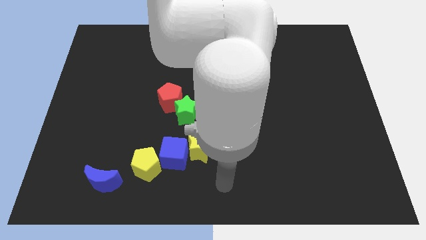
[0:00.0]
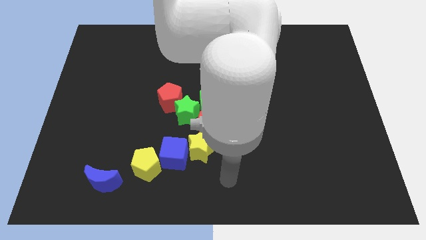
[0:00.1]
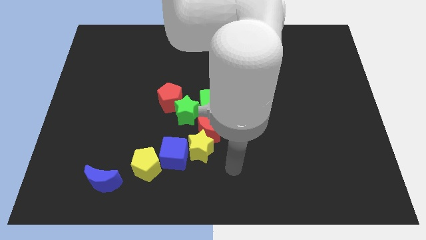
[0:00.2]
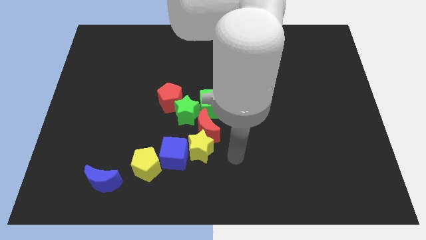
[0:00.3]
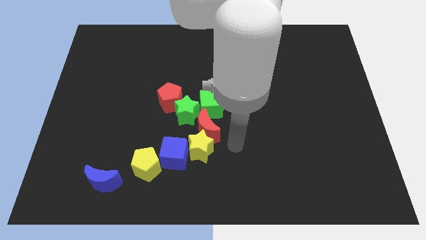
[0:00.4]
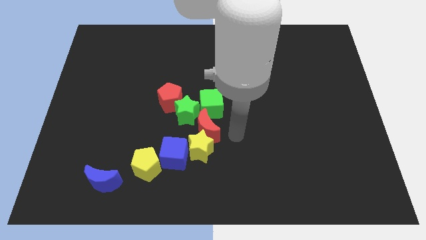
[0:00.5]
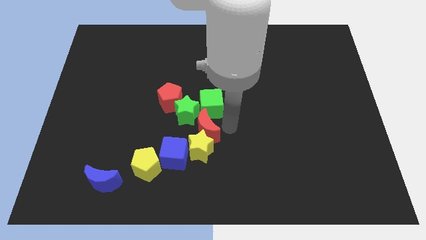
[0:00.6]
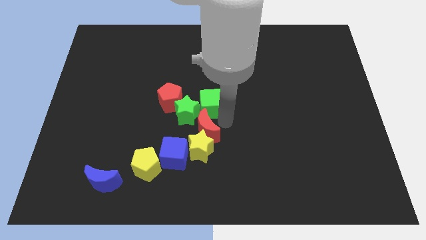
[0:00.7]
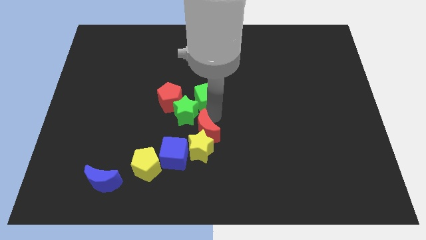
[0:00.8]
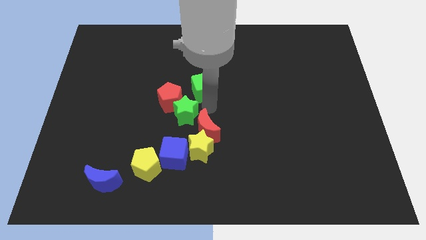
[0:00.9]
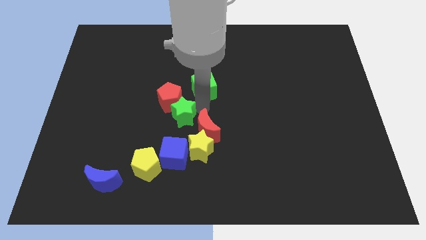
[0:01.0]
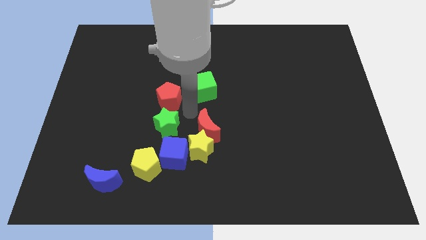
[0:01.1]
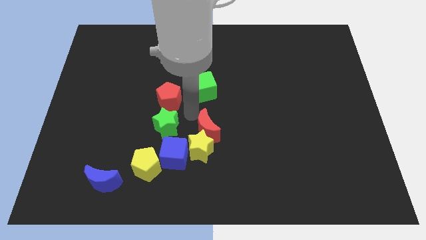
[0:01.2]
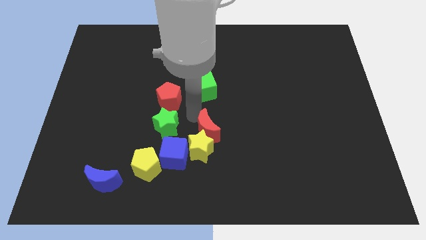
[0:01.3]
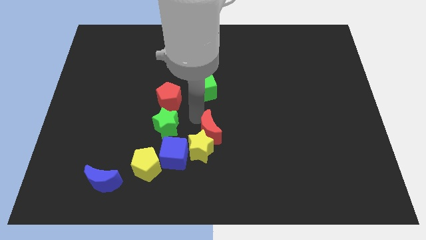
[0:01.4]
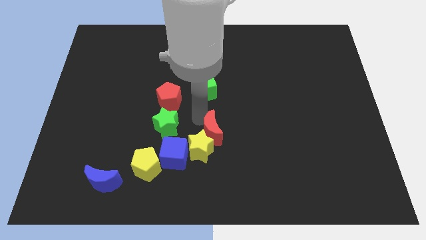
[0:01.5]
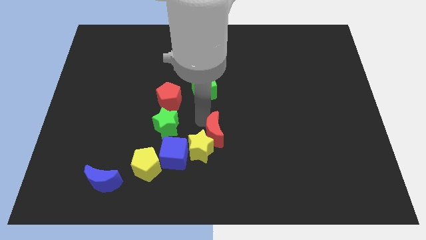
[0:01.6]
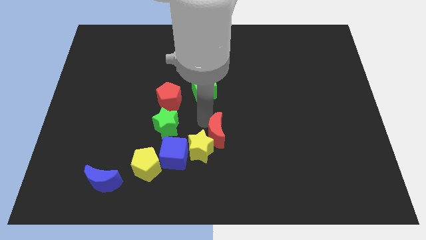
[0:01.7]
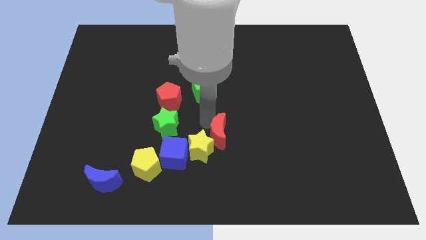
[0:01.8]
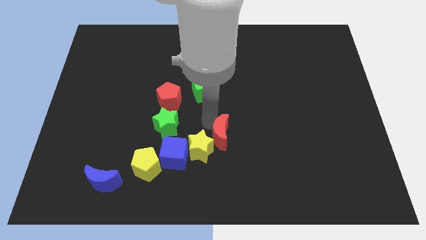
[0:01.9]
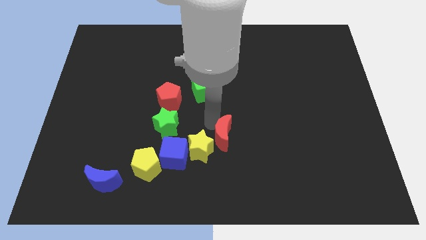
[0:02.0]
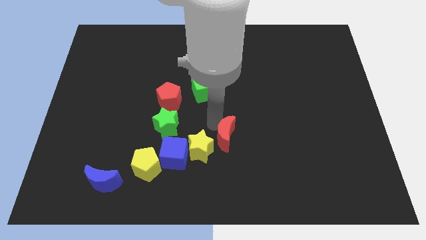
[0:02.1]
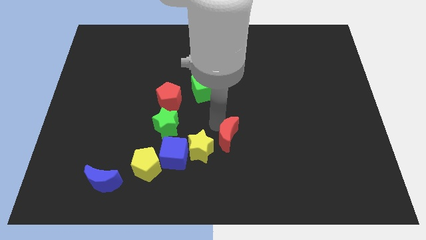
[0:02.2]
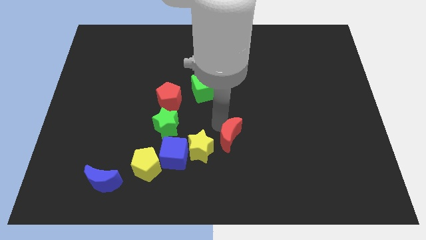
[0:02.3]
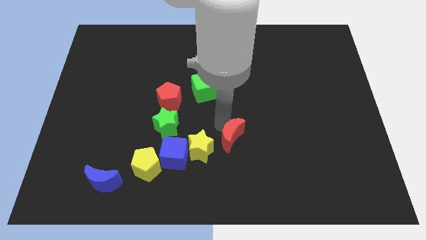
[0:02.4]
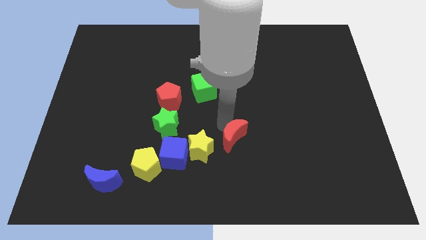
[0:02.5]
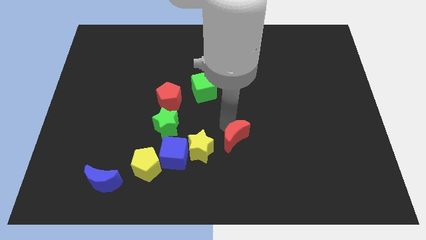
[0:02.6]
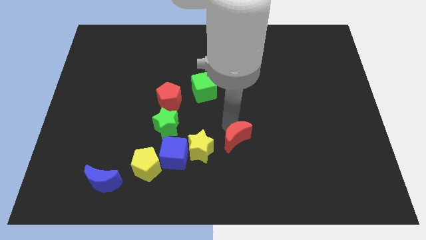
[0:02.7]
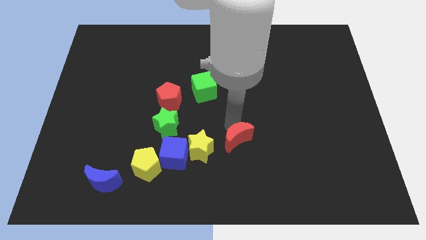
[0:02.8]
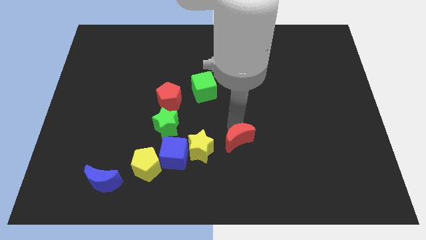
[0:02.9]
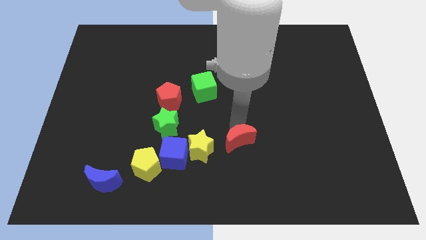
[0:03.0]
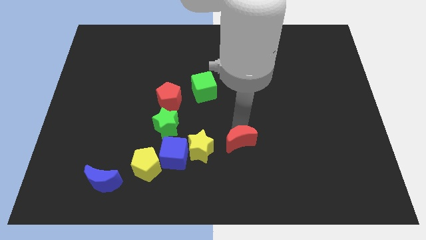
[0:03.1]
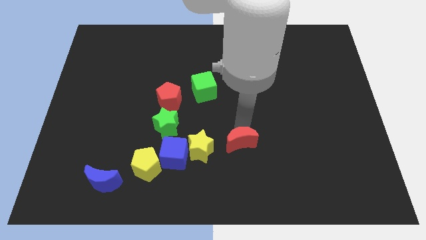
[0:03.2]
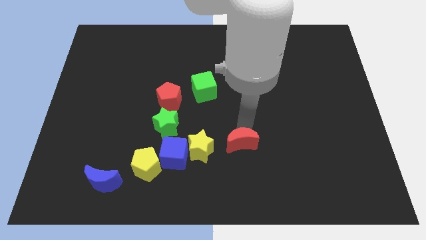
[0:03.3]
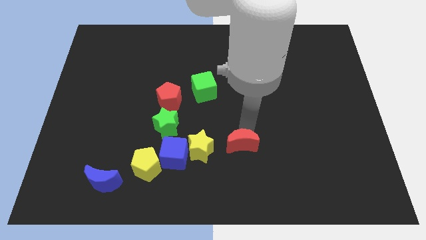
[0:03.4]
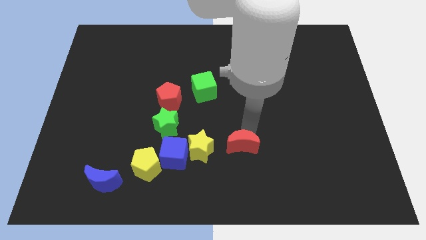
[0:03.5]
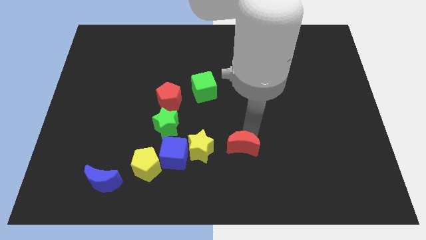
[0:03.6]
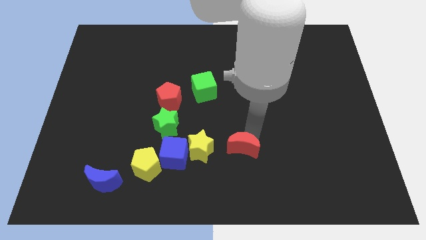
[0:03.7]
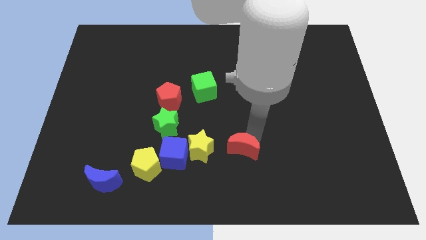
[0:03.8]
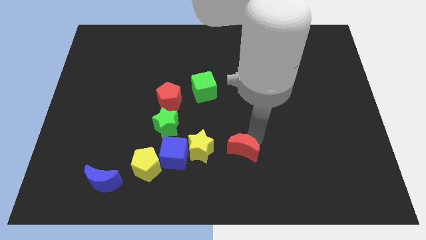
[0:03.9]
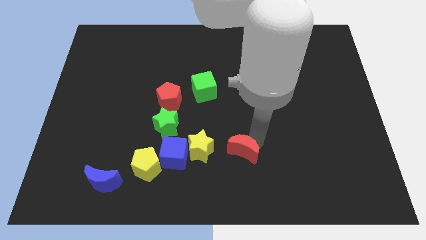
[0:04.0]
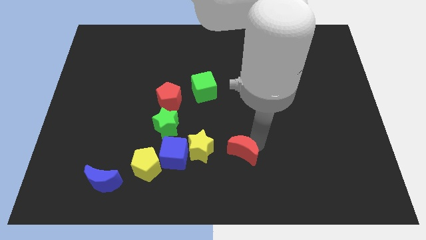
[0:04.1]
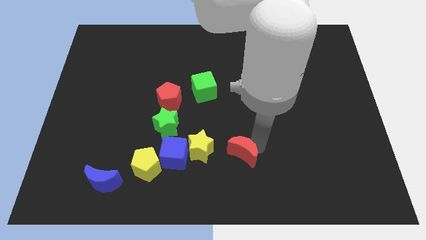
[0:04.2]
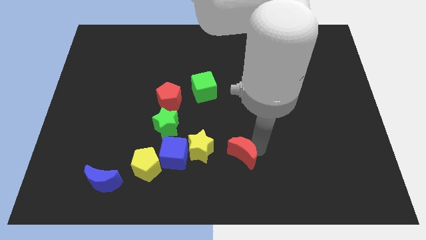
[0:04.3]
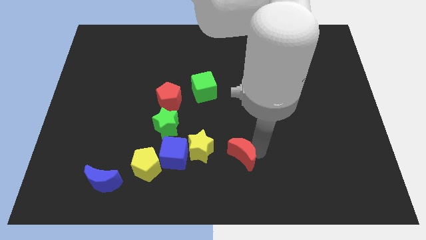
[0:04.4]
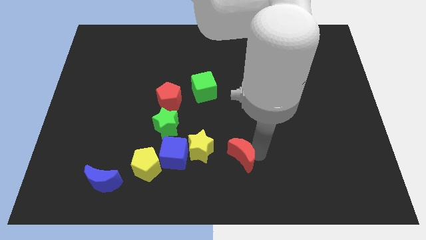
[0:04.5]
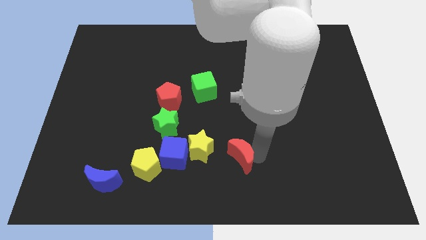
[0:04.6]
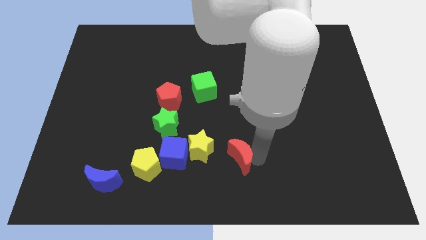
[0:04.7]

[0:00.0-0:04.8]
slide the red moon to the bottom side

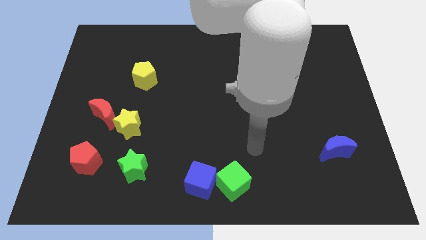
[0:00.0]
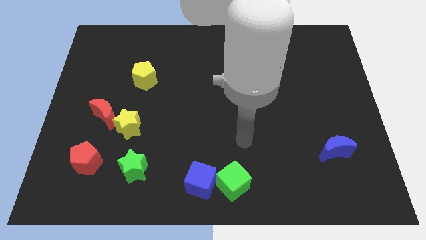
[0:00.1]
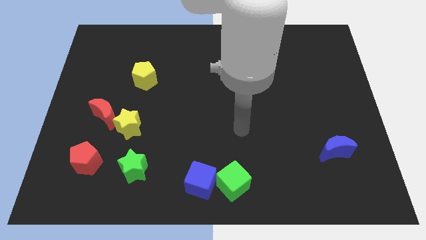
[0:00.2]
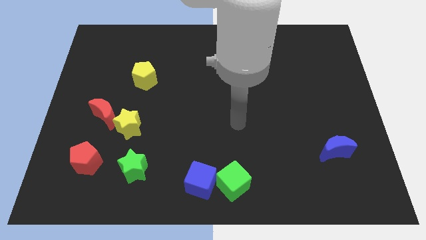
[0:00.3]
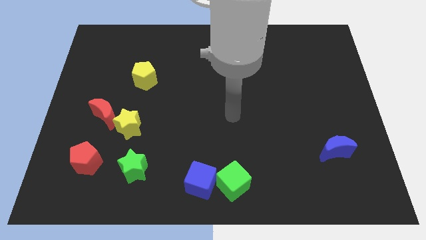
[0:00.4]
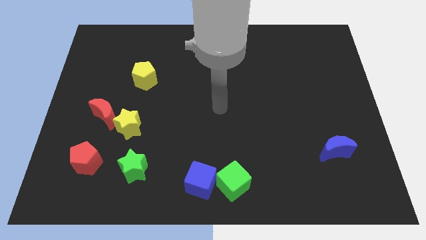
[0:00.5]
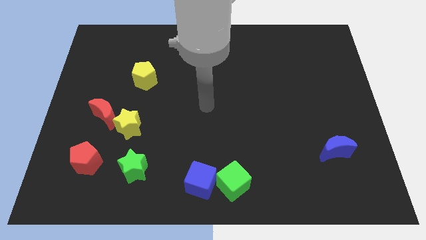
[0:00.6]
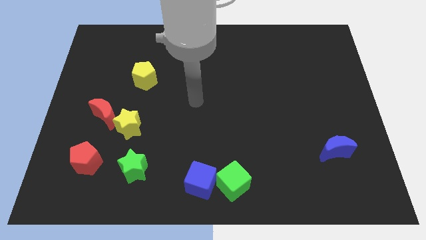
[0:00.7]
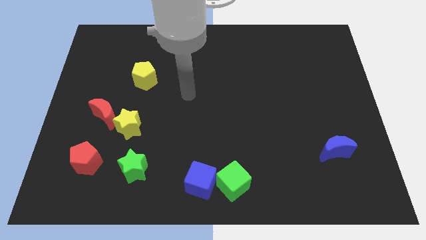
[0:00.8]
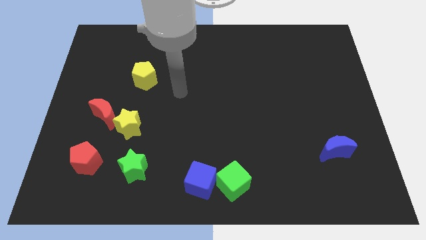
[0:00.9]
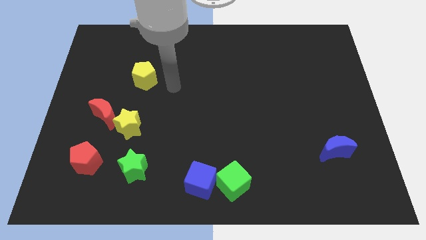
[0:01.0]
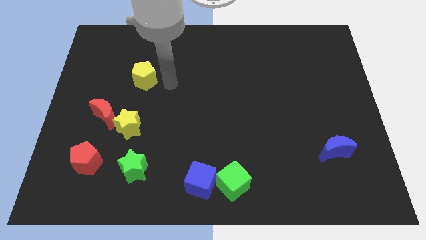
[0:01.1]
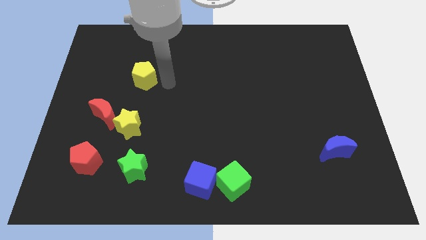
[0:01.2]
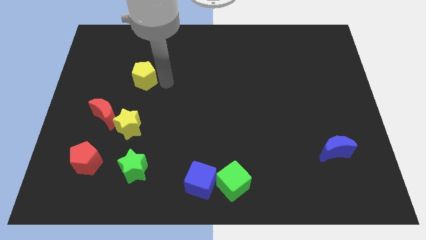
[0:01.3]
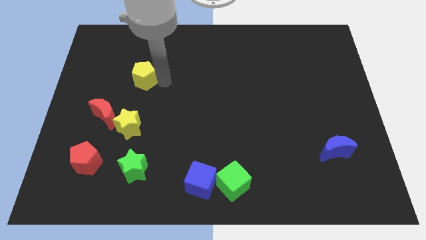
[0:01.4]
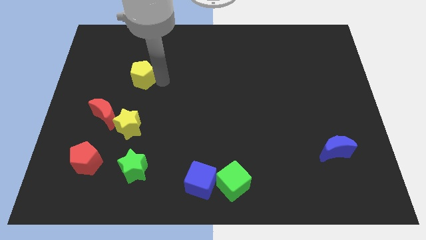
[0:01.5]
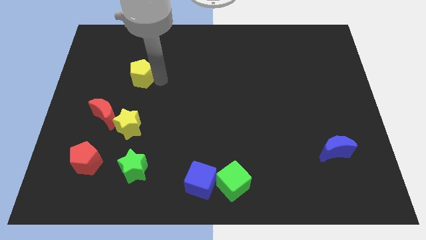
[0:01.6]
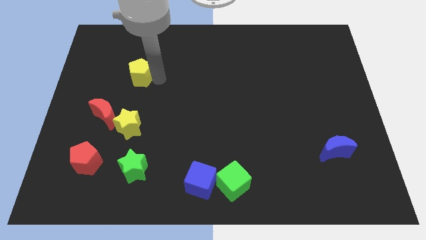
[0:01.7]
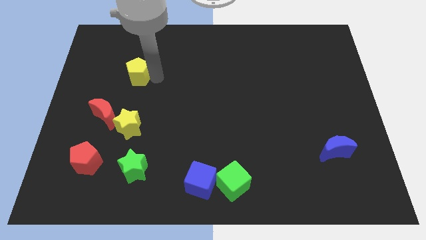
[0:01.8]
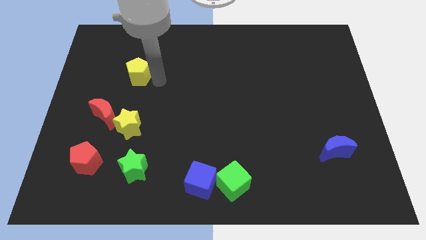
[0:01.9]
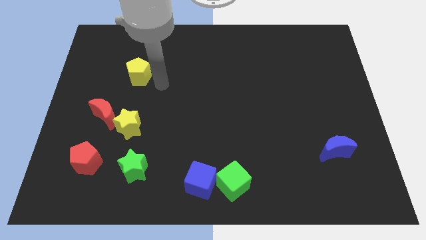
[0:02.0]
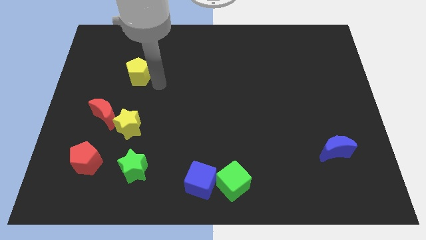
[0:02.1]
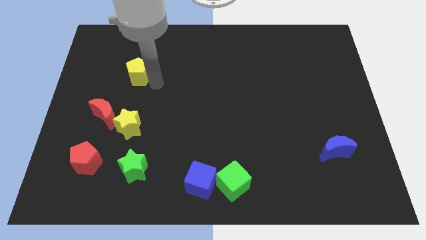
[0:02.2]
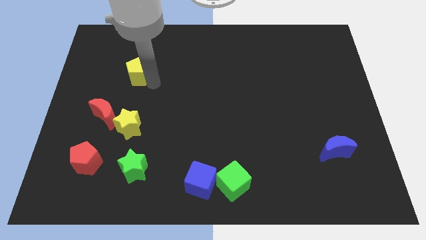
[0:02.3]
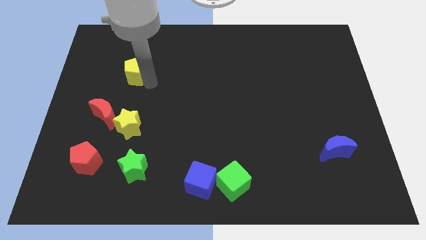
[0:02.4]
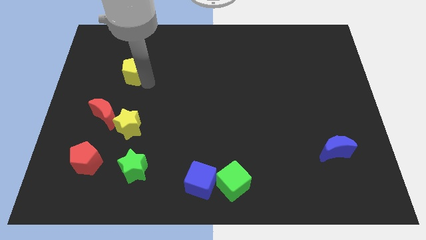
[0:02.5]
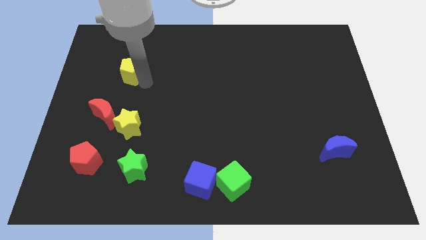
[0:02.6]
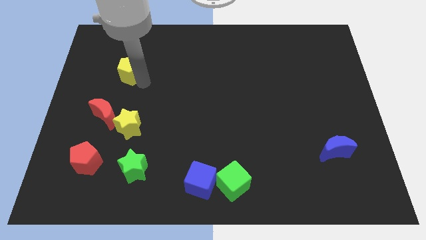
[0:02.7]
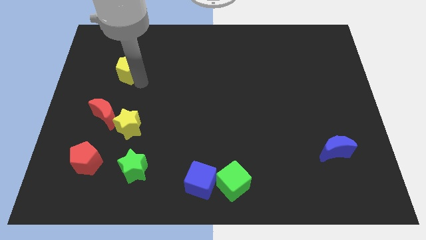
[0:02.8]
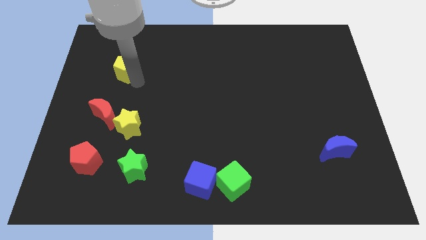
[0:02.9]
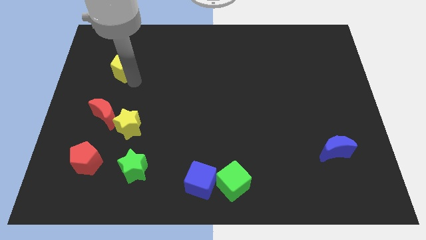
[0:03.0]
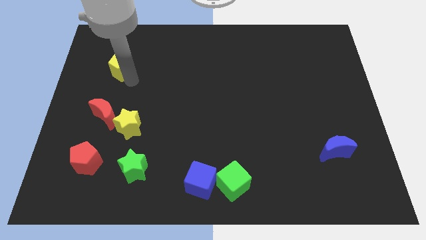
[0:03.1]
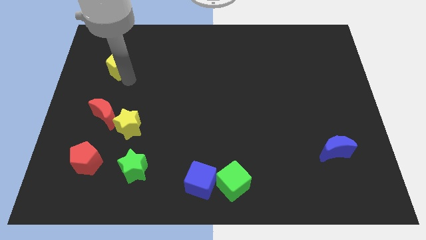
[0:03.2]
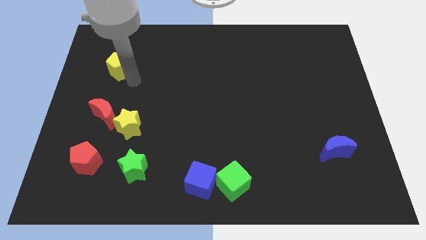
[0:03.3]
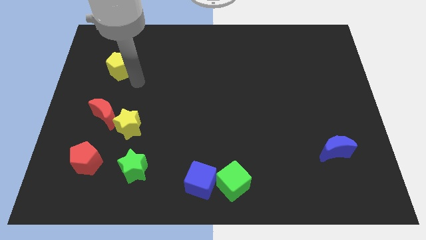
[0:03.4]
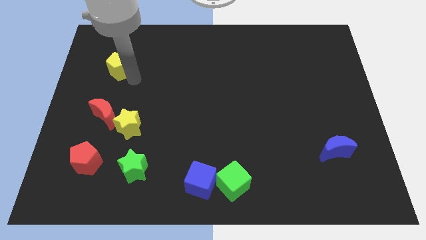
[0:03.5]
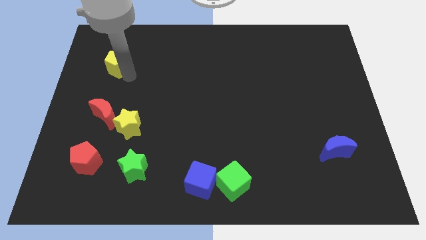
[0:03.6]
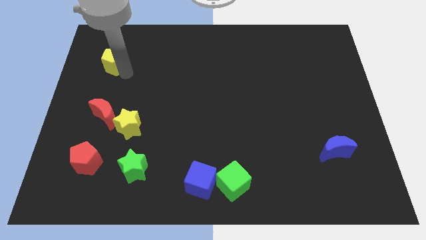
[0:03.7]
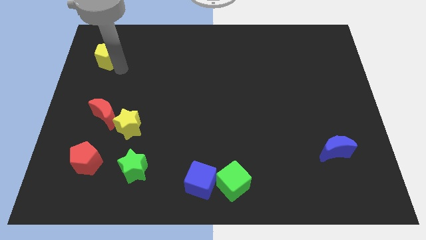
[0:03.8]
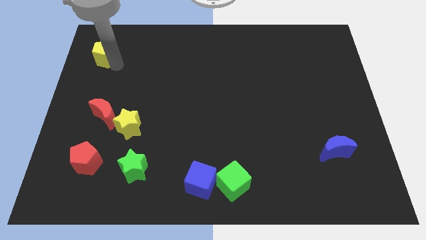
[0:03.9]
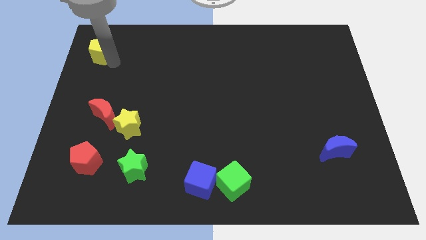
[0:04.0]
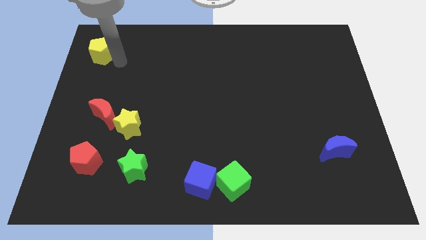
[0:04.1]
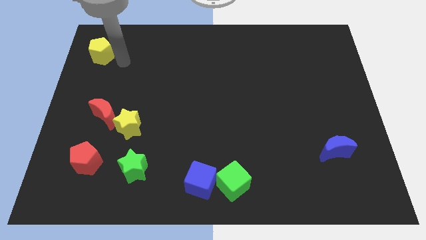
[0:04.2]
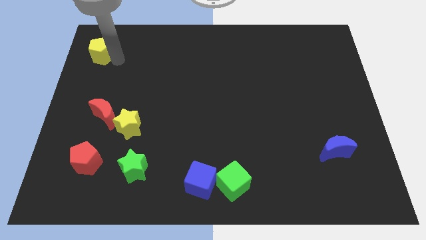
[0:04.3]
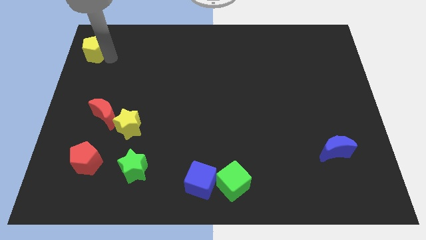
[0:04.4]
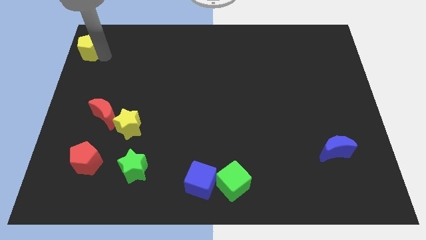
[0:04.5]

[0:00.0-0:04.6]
slide the yellow pentagon to the upper left corner
